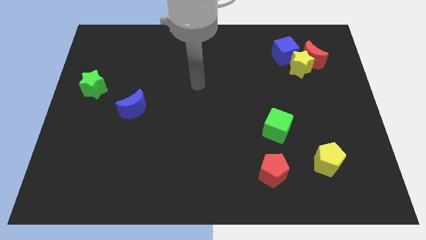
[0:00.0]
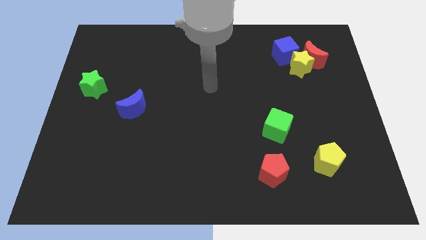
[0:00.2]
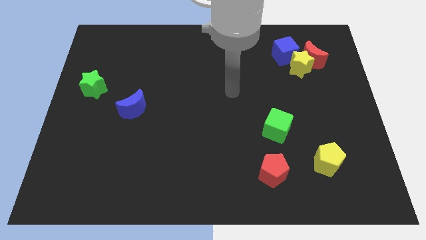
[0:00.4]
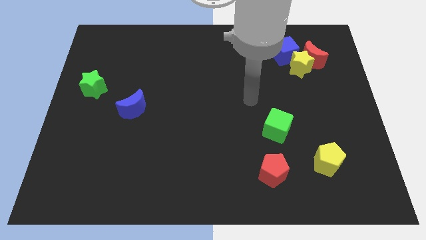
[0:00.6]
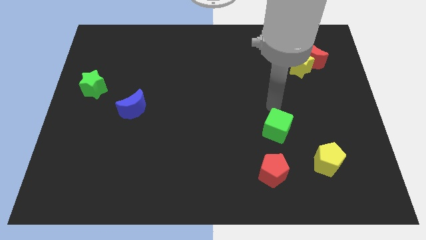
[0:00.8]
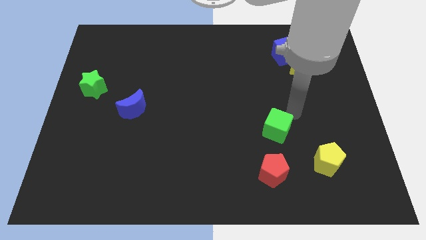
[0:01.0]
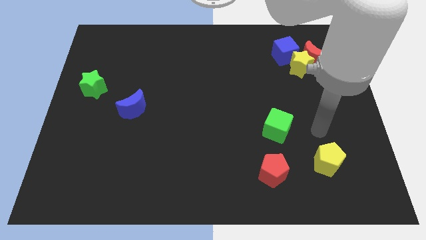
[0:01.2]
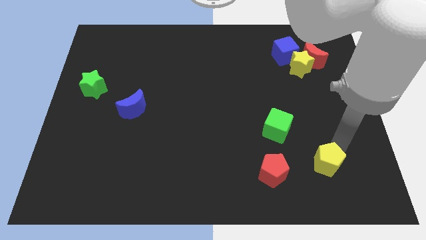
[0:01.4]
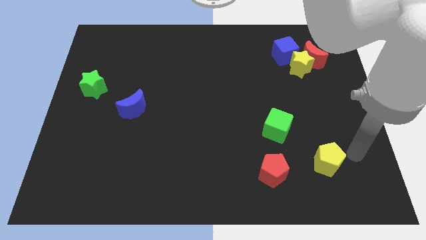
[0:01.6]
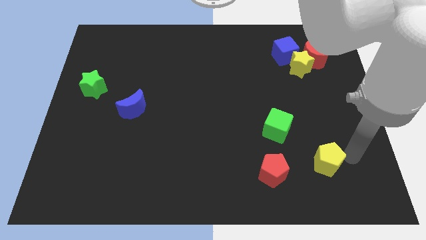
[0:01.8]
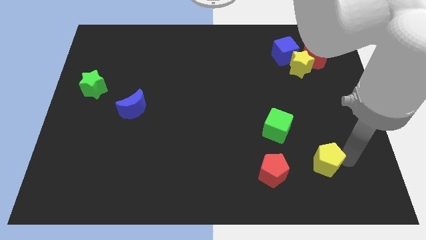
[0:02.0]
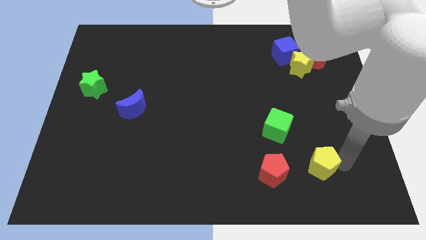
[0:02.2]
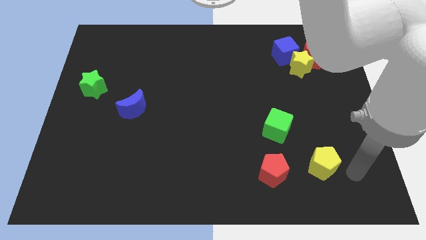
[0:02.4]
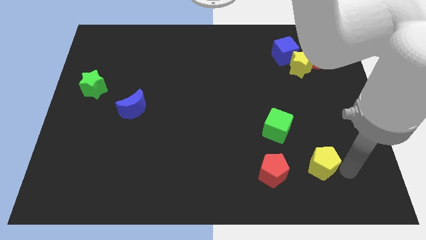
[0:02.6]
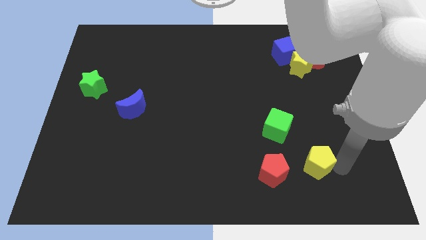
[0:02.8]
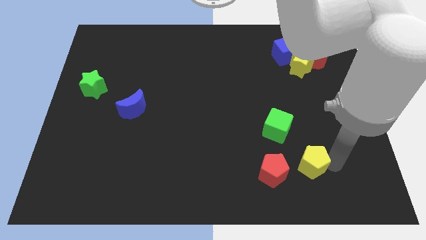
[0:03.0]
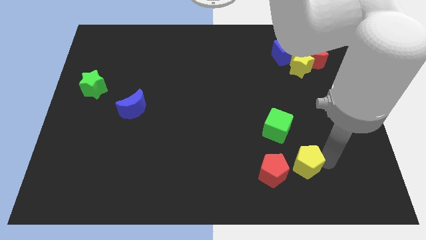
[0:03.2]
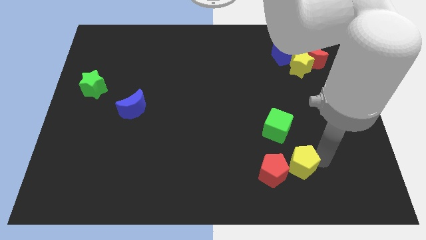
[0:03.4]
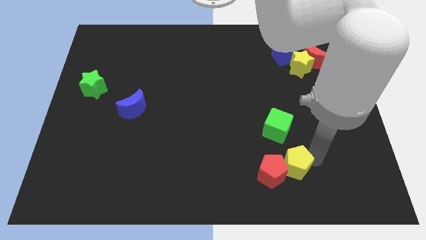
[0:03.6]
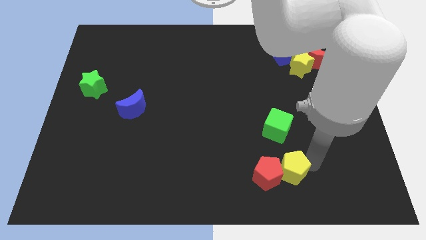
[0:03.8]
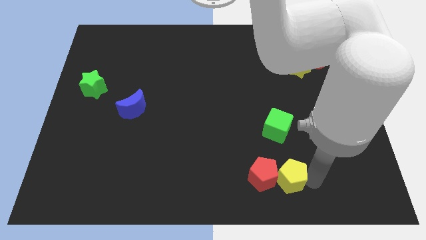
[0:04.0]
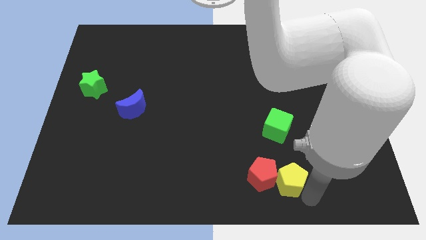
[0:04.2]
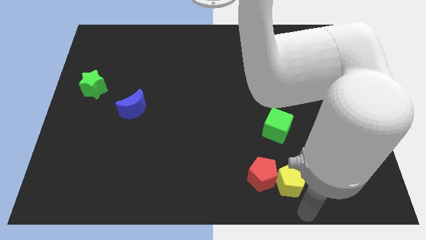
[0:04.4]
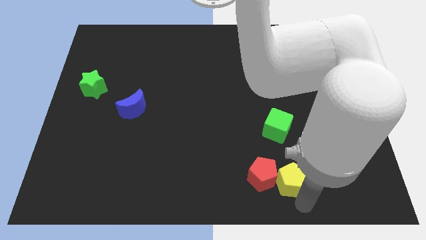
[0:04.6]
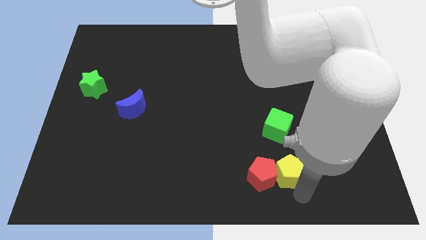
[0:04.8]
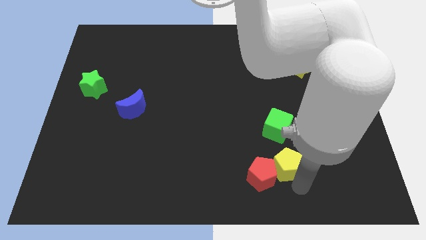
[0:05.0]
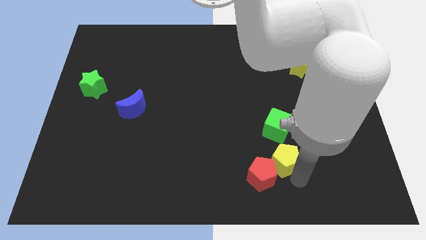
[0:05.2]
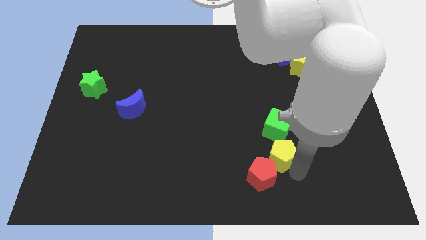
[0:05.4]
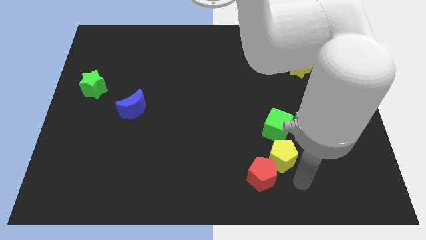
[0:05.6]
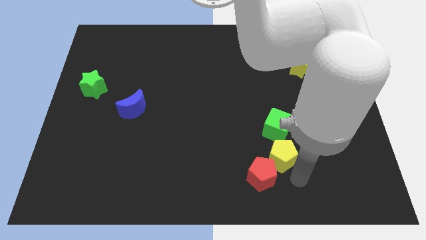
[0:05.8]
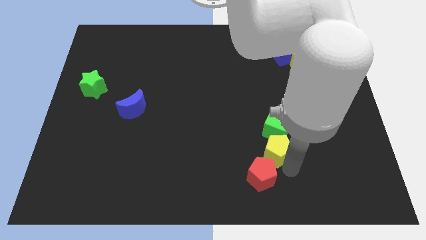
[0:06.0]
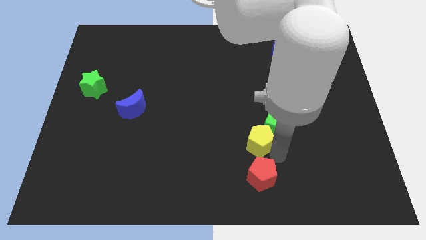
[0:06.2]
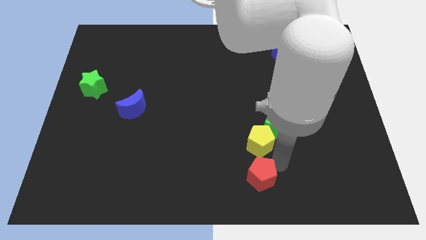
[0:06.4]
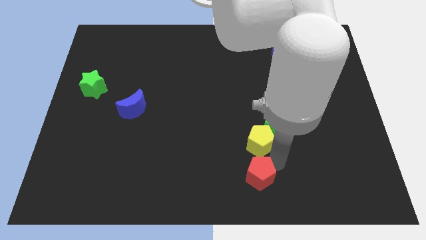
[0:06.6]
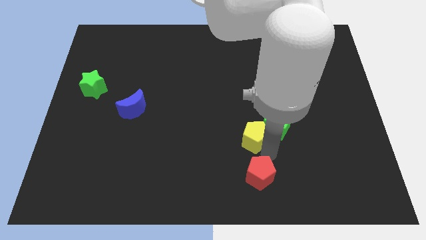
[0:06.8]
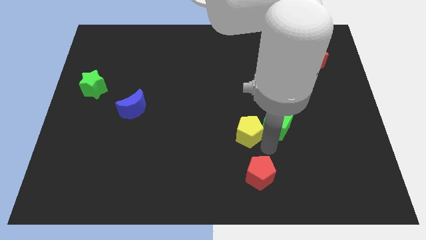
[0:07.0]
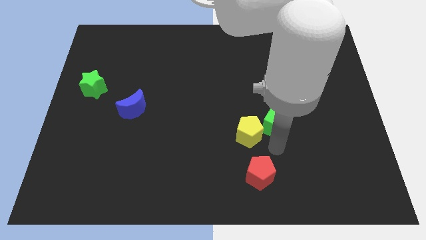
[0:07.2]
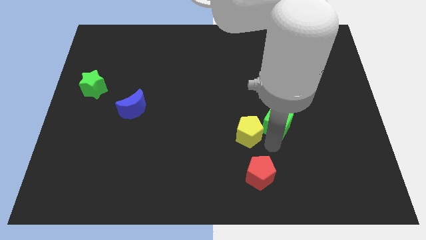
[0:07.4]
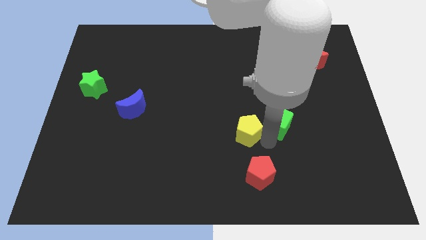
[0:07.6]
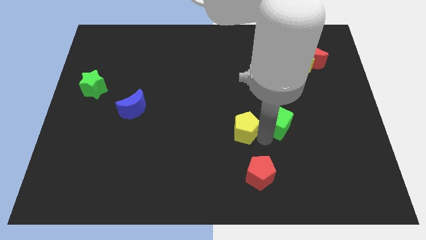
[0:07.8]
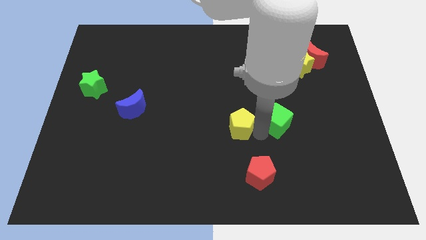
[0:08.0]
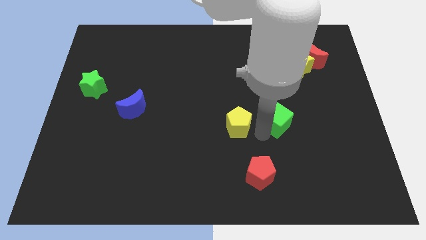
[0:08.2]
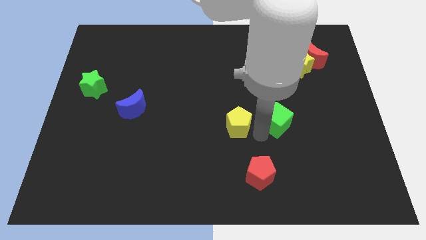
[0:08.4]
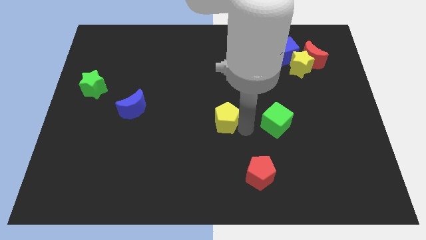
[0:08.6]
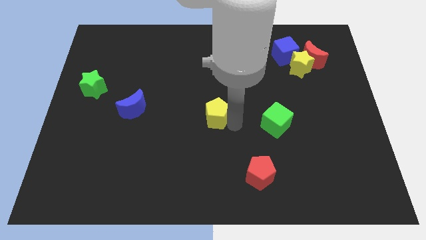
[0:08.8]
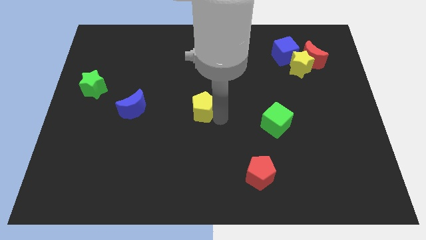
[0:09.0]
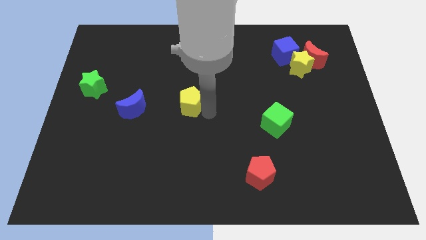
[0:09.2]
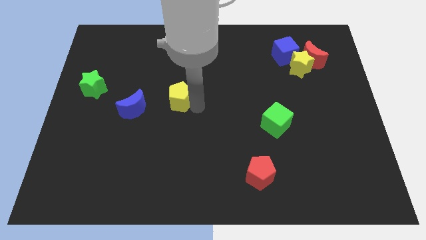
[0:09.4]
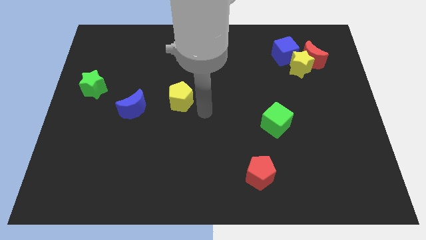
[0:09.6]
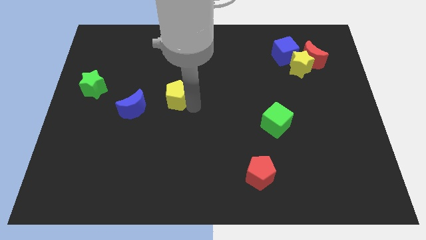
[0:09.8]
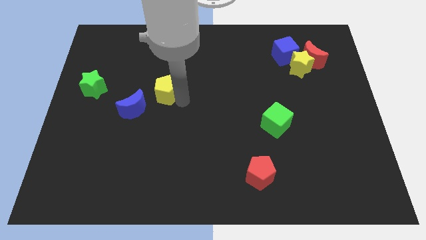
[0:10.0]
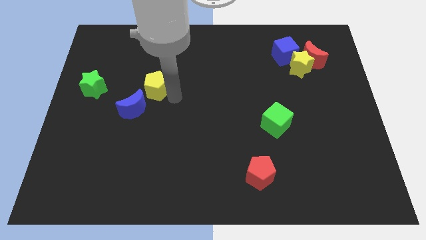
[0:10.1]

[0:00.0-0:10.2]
move the yellow pentagon to the top of the blue moon

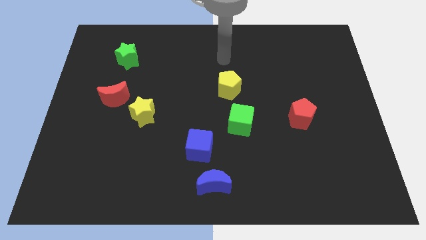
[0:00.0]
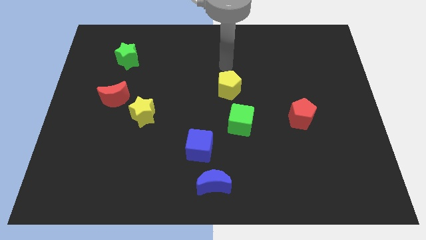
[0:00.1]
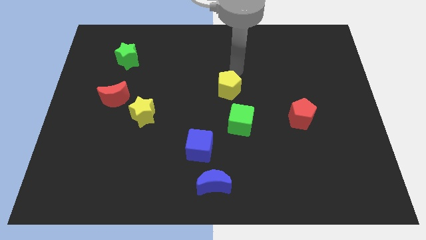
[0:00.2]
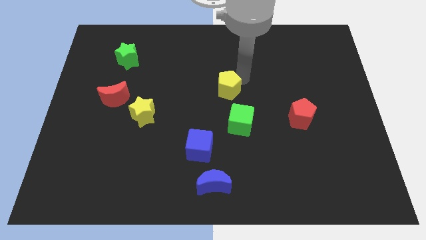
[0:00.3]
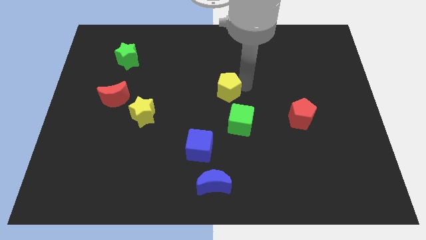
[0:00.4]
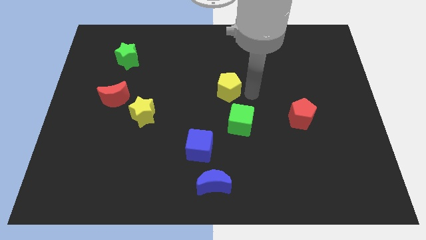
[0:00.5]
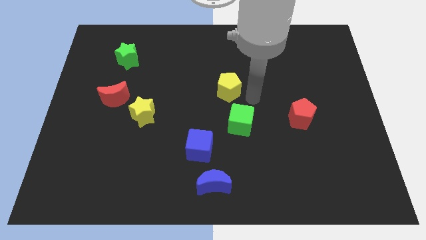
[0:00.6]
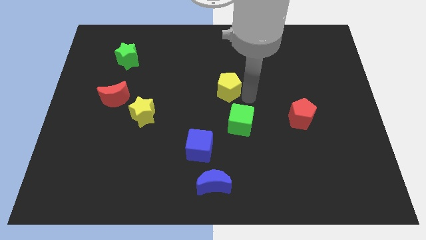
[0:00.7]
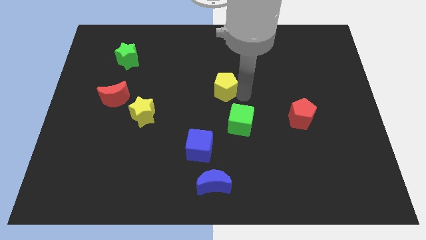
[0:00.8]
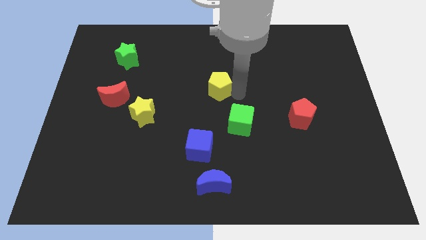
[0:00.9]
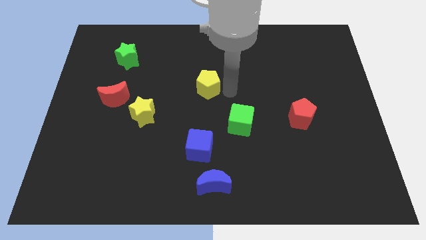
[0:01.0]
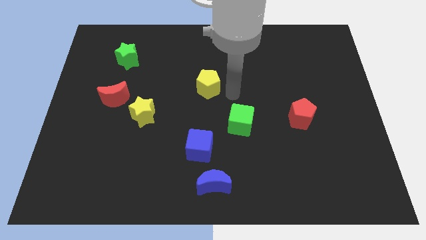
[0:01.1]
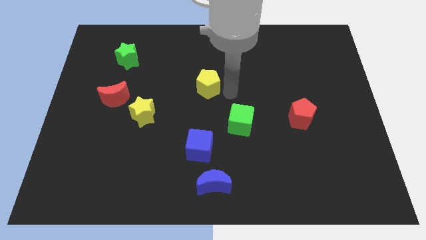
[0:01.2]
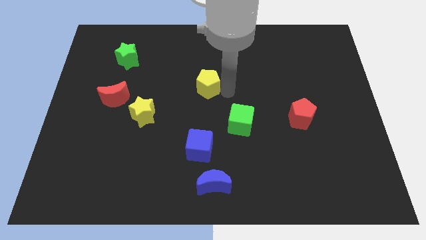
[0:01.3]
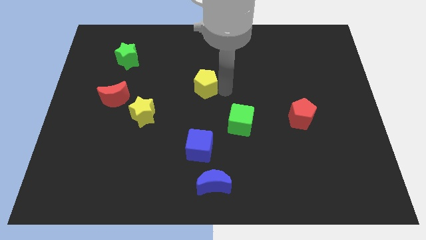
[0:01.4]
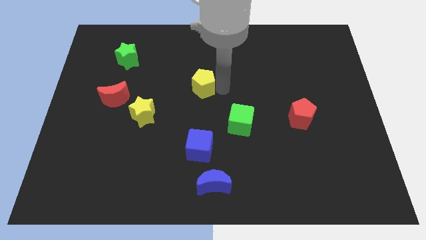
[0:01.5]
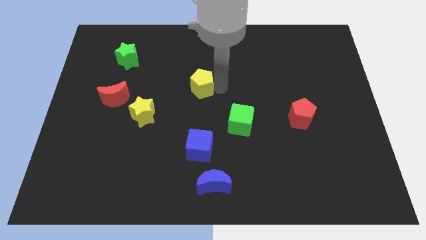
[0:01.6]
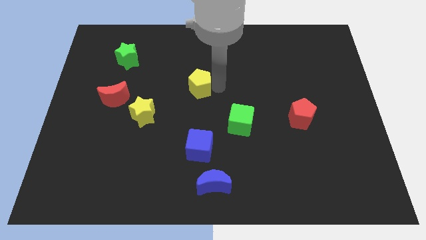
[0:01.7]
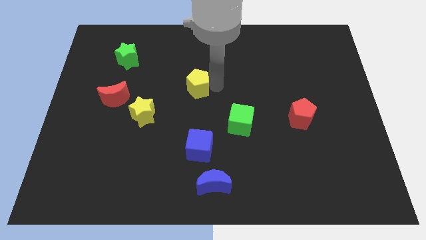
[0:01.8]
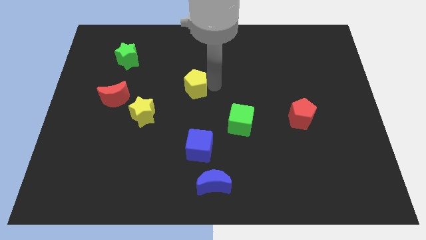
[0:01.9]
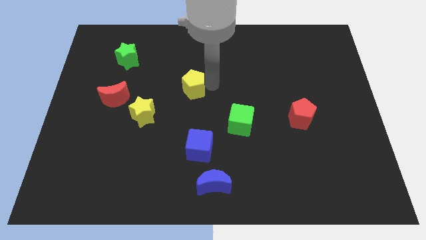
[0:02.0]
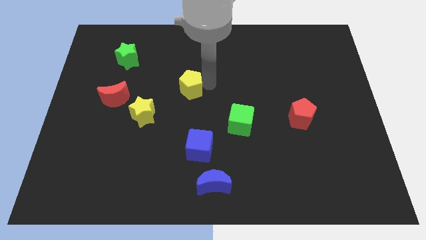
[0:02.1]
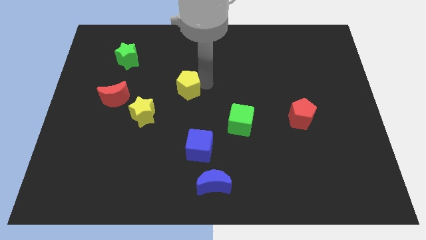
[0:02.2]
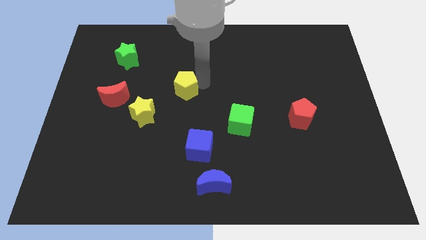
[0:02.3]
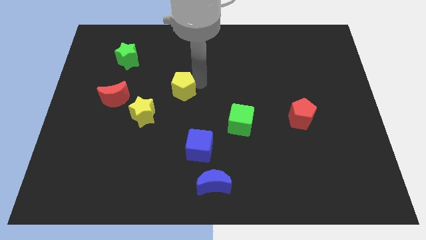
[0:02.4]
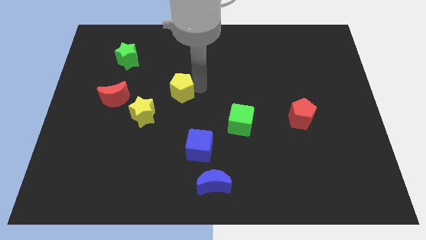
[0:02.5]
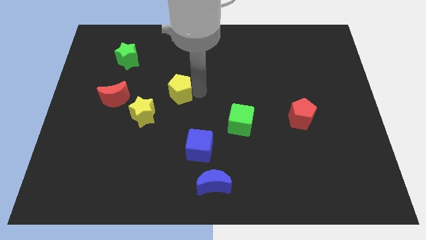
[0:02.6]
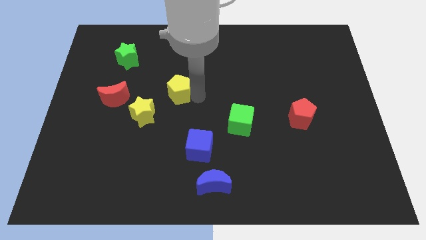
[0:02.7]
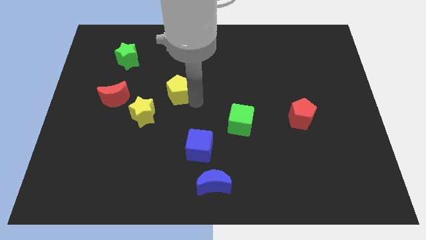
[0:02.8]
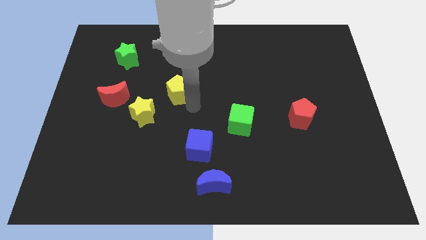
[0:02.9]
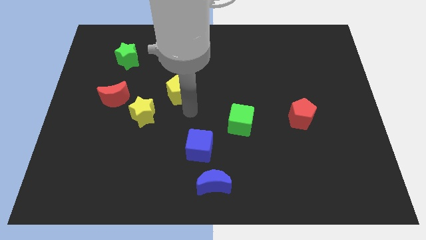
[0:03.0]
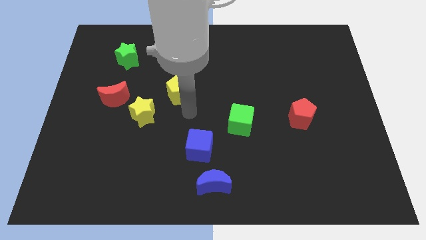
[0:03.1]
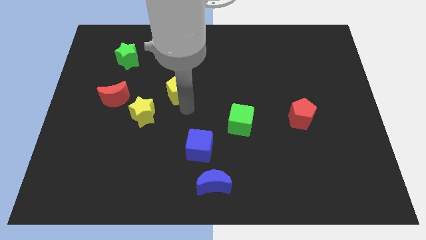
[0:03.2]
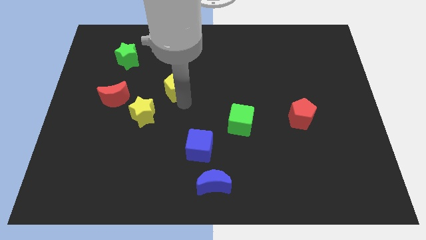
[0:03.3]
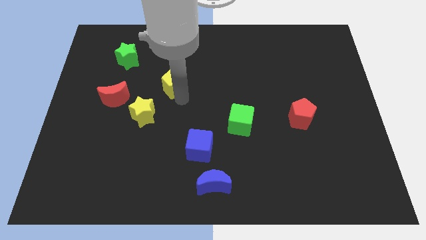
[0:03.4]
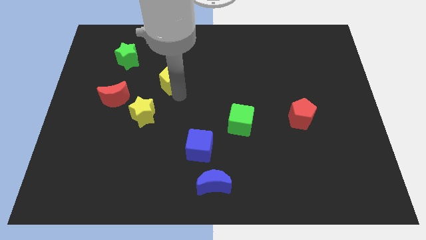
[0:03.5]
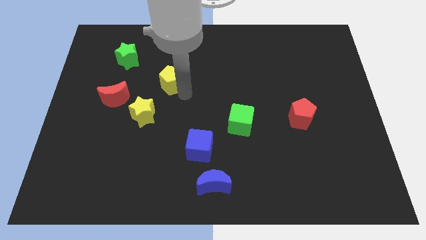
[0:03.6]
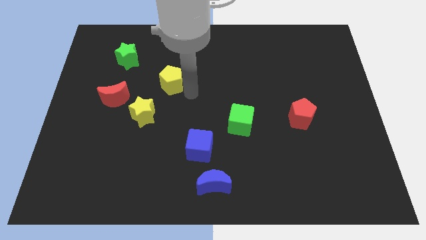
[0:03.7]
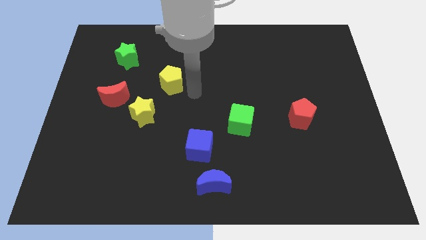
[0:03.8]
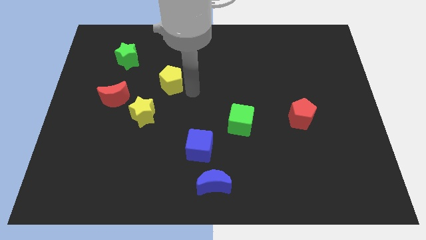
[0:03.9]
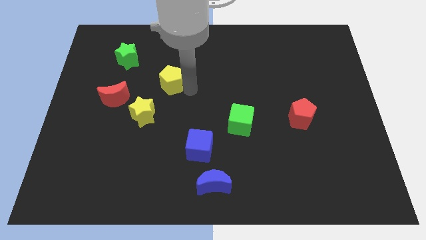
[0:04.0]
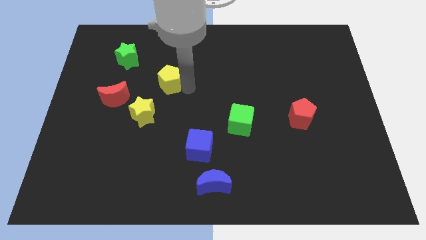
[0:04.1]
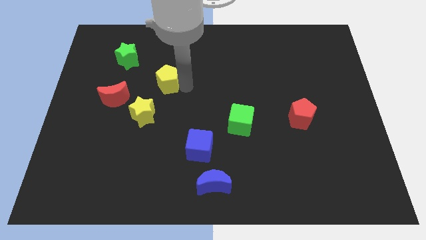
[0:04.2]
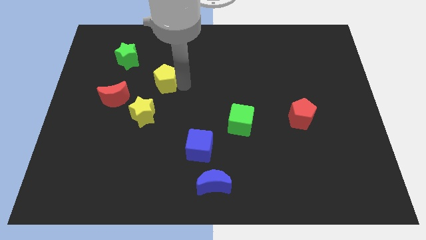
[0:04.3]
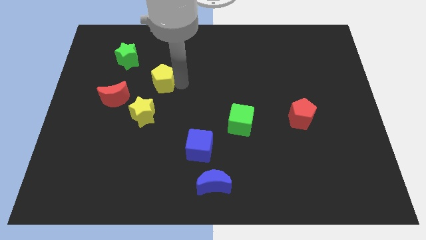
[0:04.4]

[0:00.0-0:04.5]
move the yellow pentagon to the bottom right side of the green star
